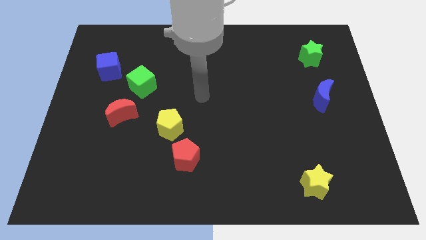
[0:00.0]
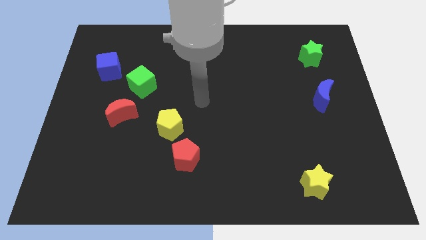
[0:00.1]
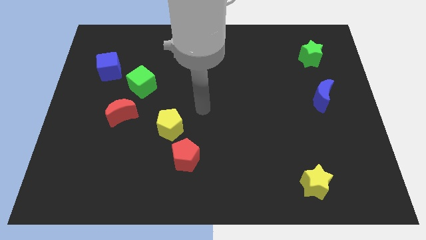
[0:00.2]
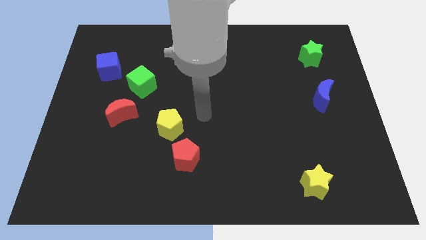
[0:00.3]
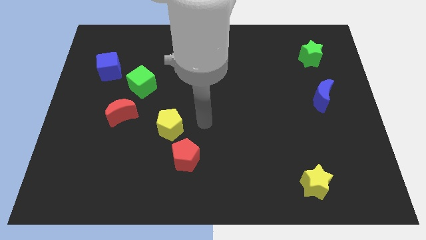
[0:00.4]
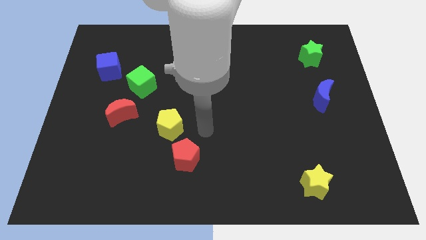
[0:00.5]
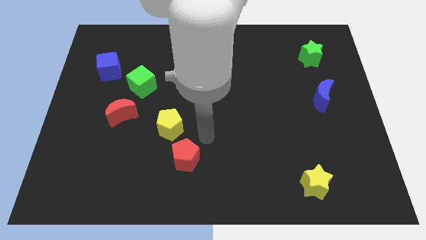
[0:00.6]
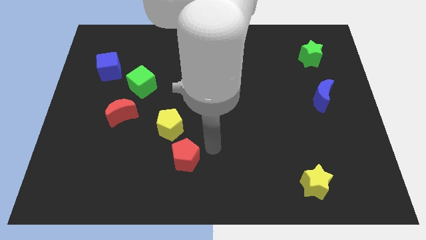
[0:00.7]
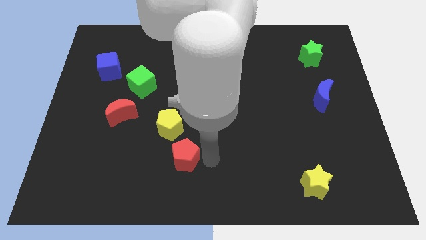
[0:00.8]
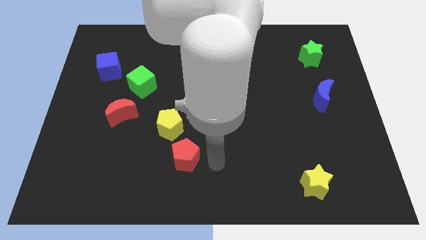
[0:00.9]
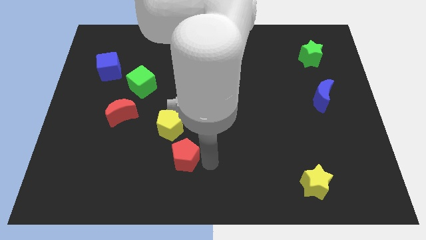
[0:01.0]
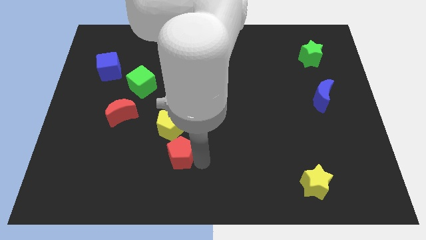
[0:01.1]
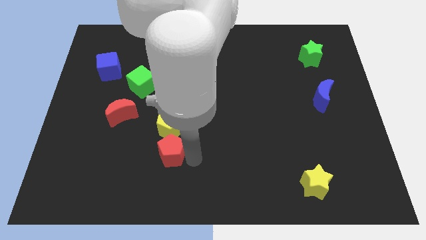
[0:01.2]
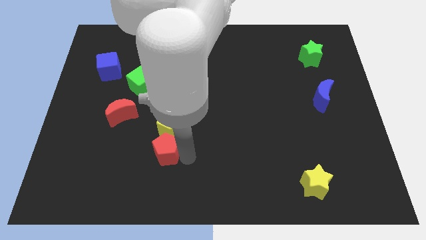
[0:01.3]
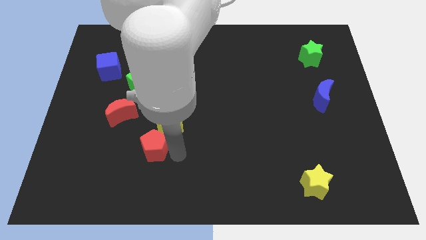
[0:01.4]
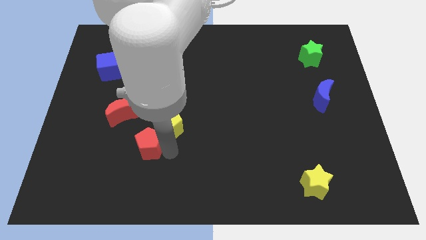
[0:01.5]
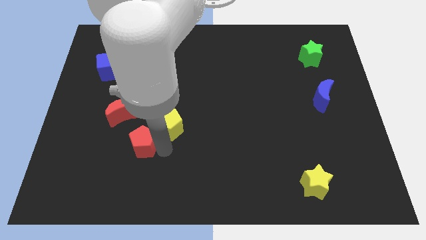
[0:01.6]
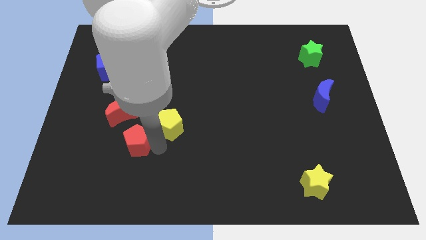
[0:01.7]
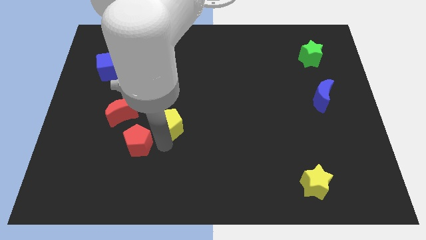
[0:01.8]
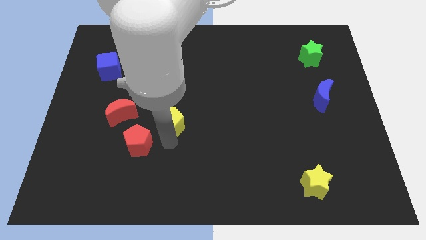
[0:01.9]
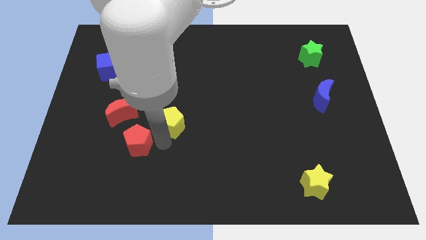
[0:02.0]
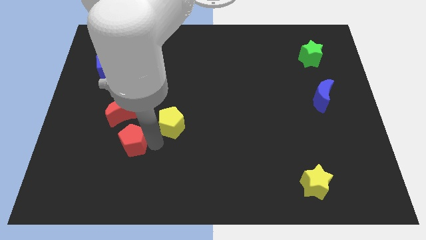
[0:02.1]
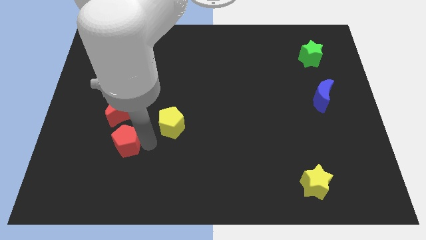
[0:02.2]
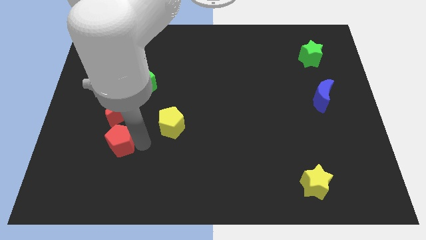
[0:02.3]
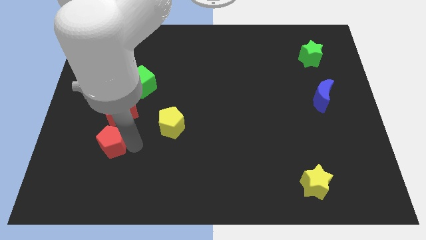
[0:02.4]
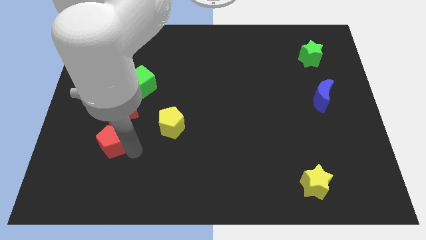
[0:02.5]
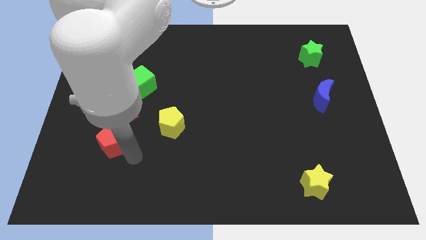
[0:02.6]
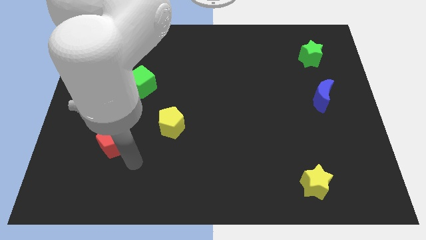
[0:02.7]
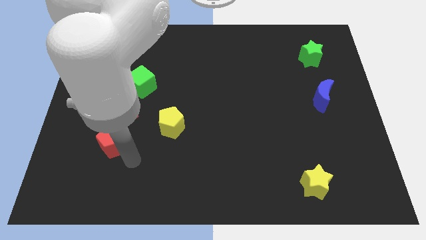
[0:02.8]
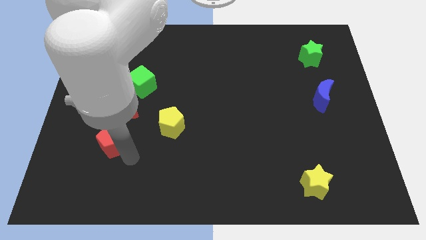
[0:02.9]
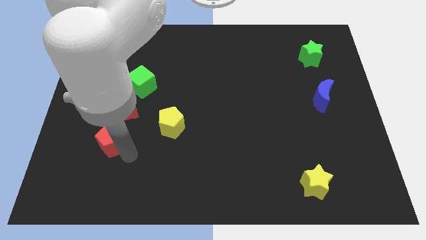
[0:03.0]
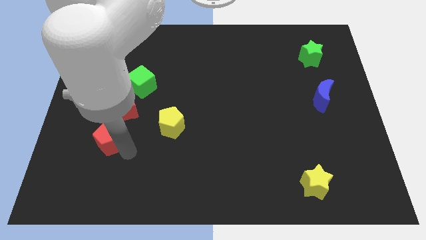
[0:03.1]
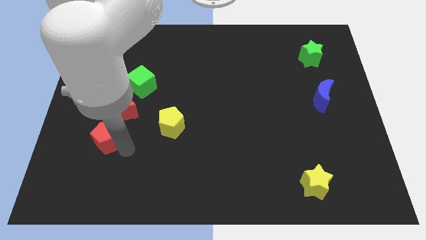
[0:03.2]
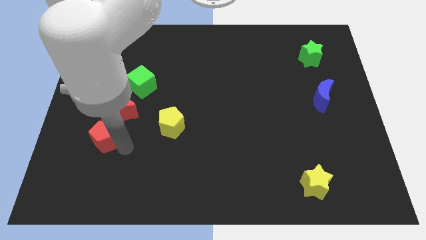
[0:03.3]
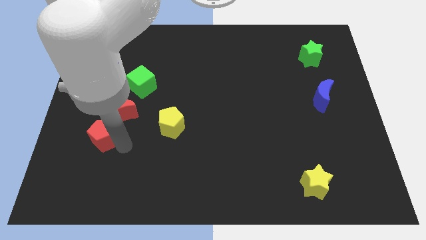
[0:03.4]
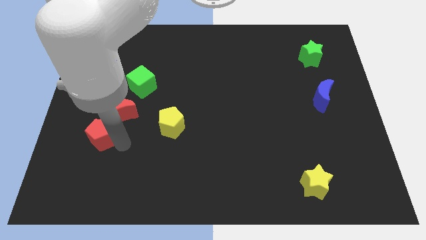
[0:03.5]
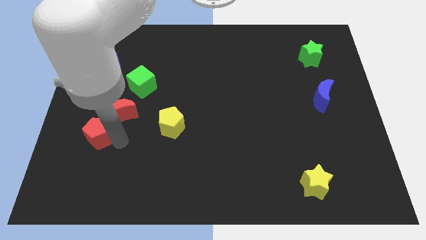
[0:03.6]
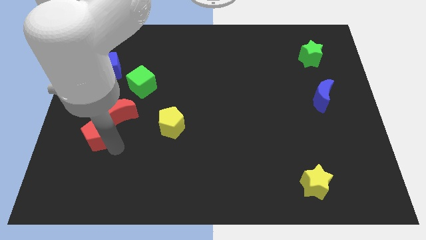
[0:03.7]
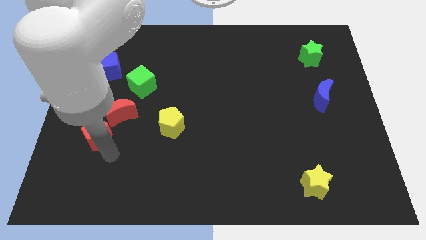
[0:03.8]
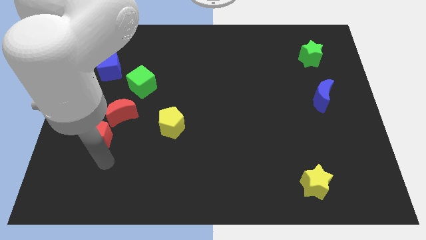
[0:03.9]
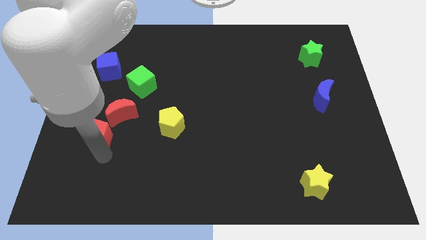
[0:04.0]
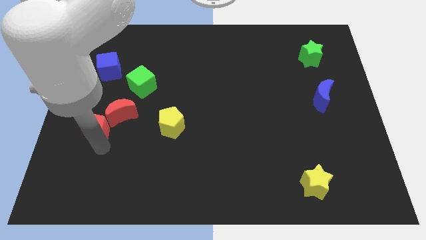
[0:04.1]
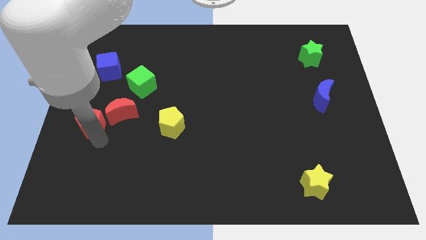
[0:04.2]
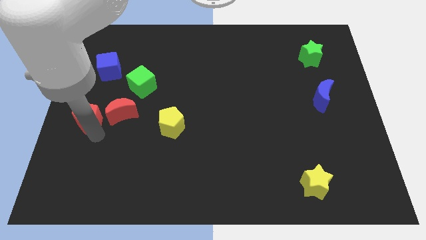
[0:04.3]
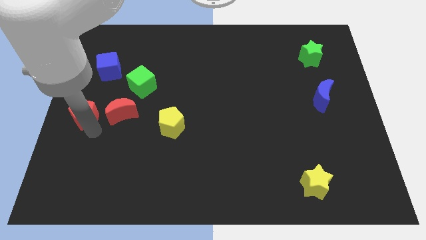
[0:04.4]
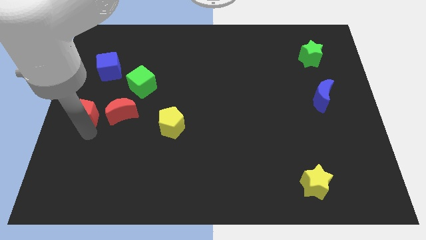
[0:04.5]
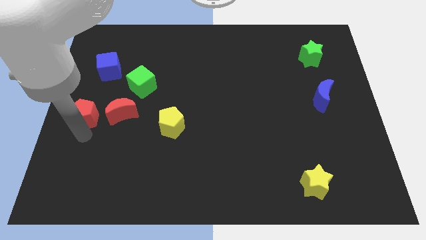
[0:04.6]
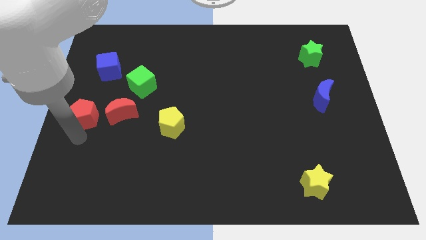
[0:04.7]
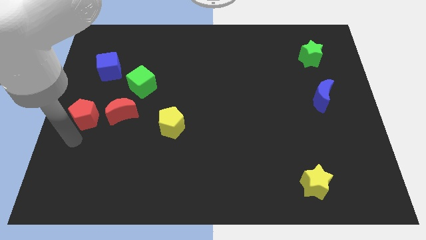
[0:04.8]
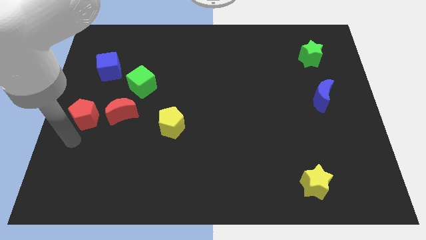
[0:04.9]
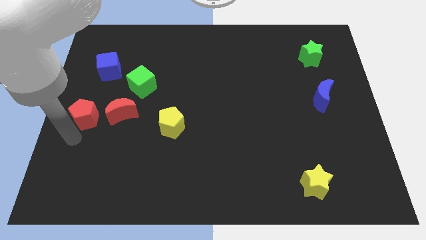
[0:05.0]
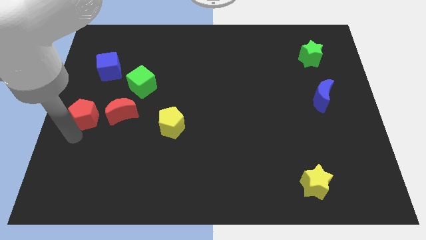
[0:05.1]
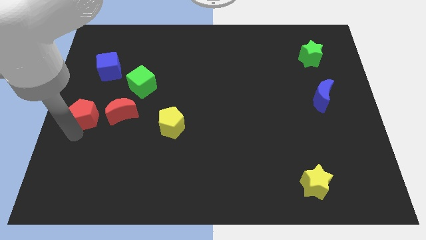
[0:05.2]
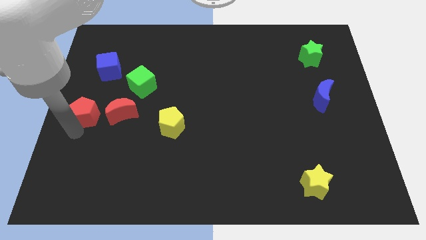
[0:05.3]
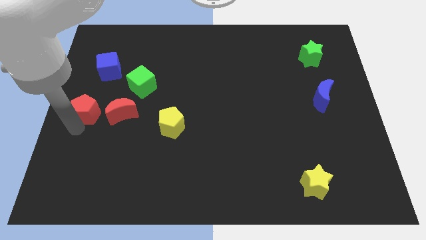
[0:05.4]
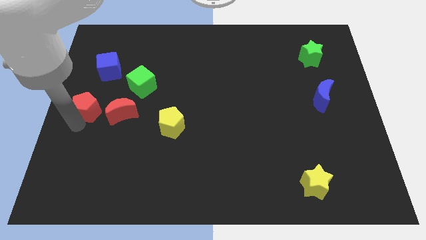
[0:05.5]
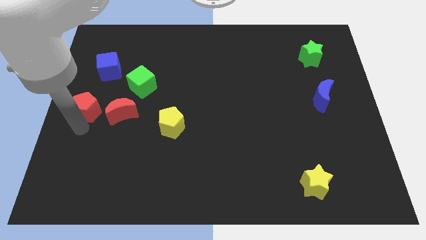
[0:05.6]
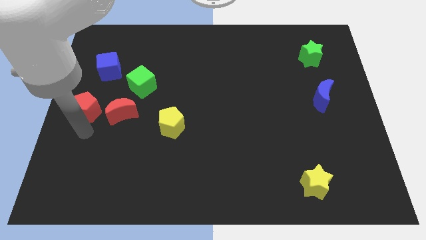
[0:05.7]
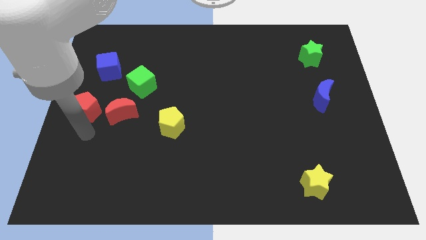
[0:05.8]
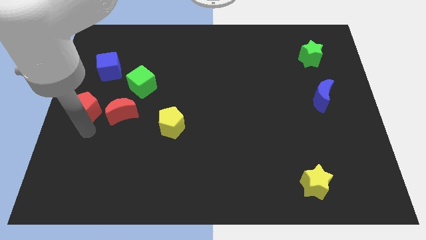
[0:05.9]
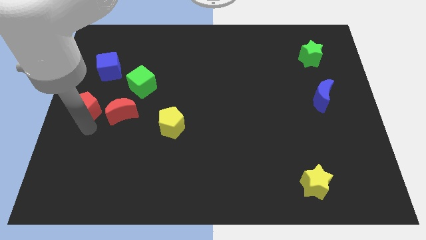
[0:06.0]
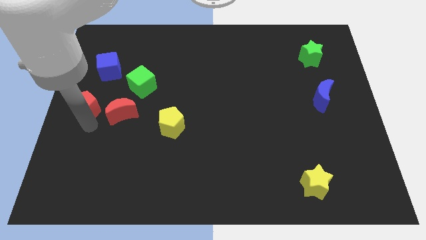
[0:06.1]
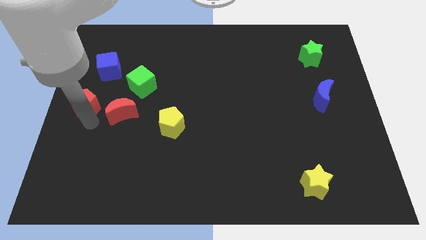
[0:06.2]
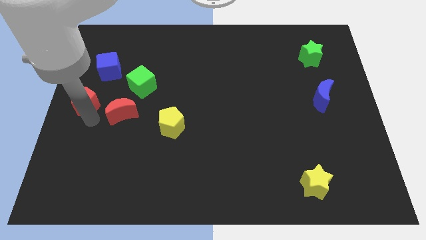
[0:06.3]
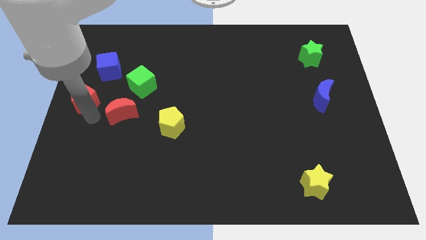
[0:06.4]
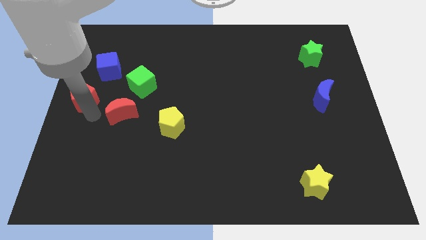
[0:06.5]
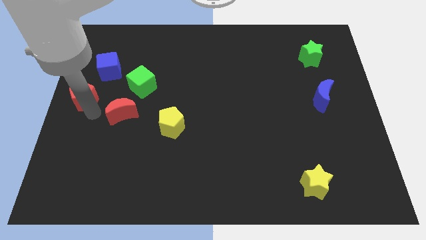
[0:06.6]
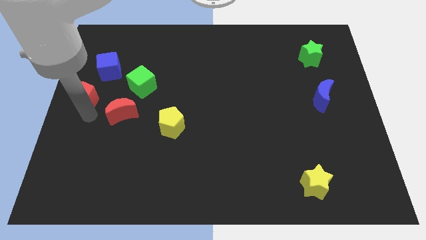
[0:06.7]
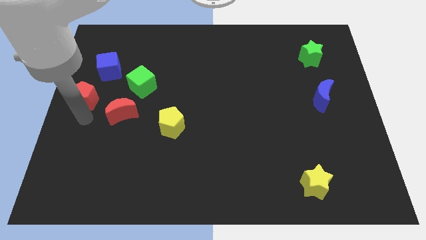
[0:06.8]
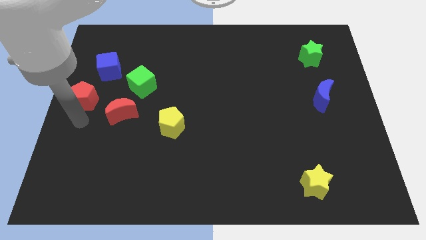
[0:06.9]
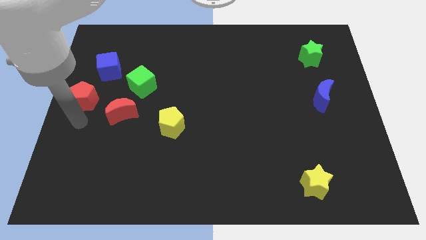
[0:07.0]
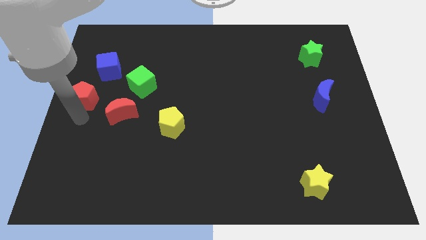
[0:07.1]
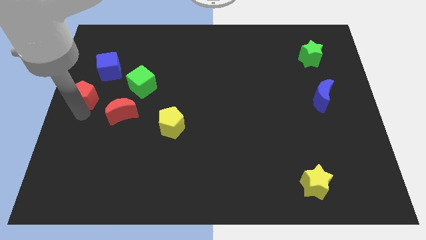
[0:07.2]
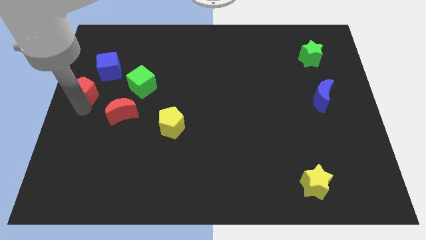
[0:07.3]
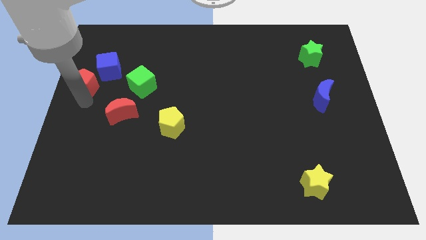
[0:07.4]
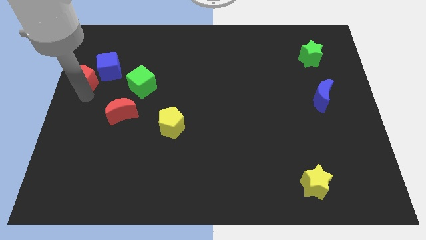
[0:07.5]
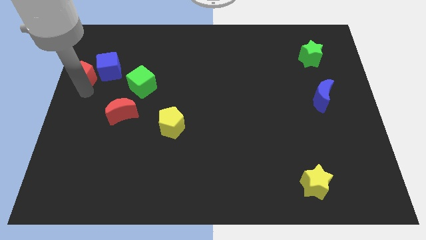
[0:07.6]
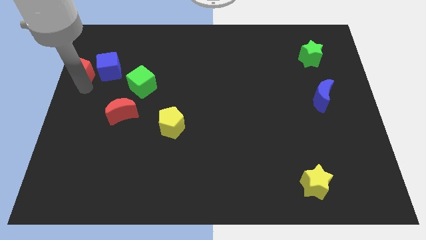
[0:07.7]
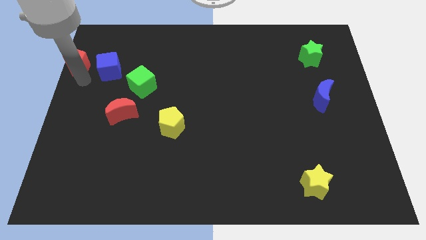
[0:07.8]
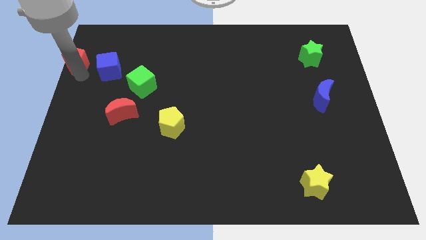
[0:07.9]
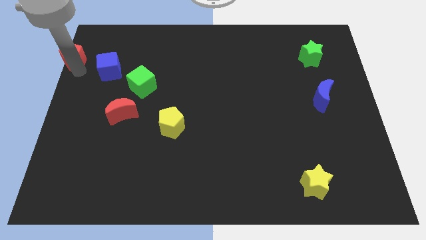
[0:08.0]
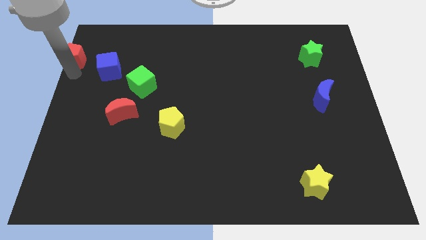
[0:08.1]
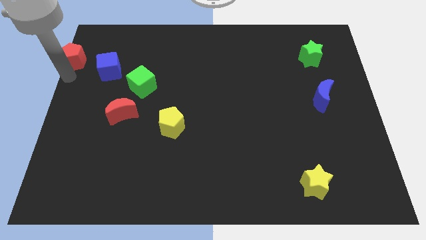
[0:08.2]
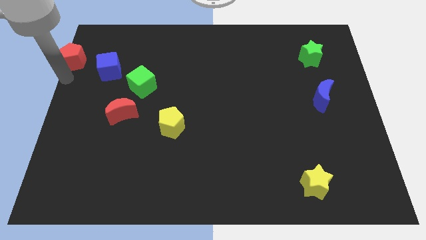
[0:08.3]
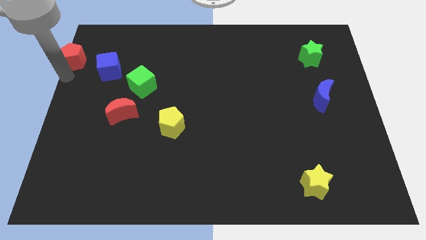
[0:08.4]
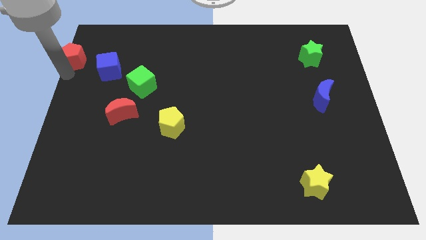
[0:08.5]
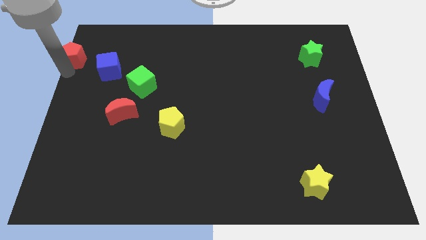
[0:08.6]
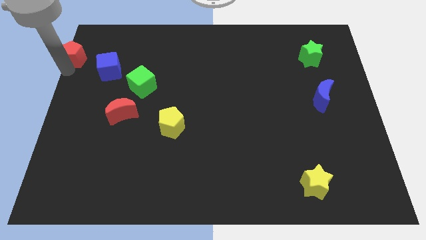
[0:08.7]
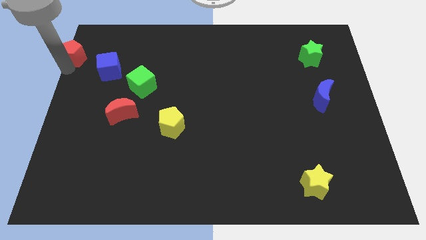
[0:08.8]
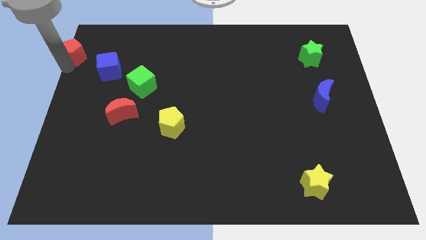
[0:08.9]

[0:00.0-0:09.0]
move the red pentagon to the top left corner
